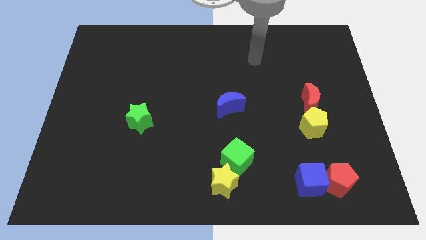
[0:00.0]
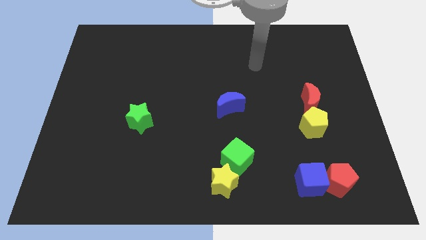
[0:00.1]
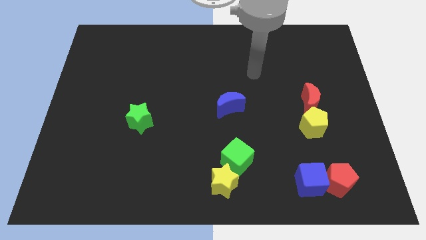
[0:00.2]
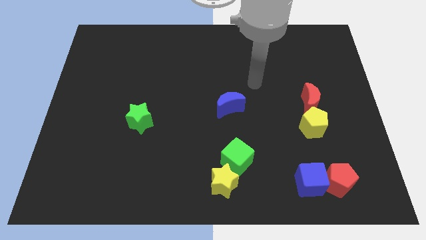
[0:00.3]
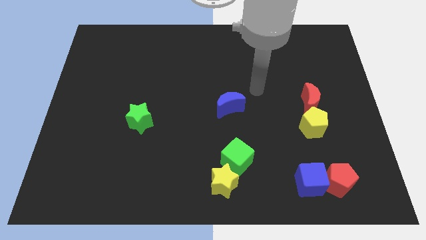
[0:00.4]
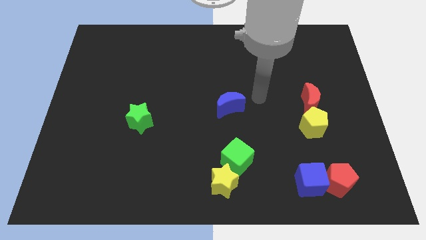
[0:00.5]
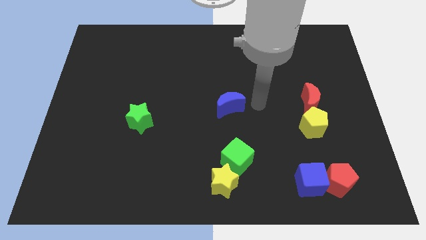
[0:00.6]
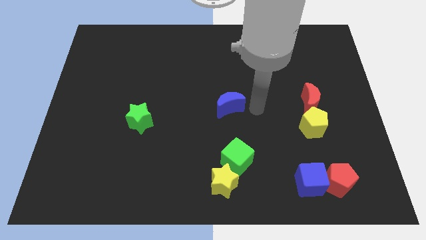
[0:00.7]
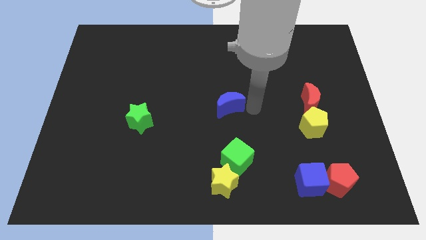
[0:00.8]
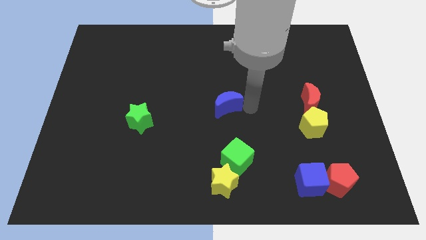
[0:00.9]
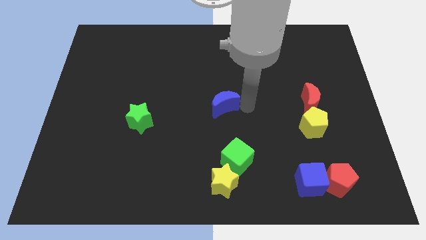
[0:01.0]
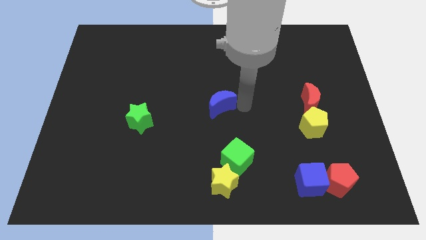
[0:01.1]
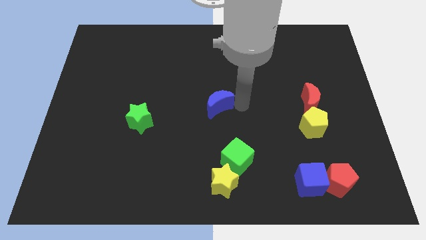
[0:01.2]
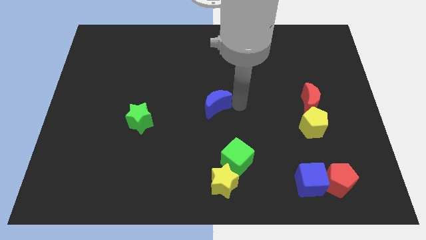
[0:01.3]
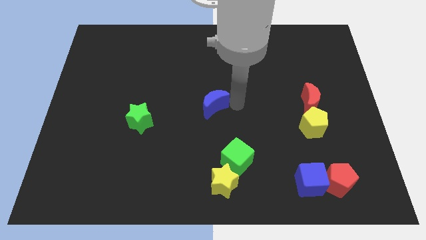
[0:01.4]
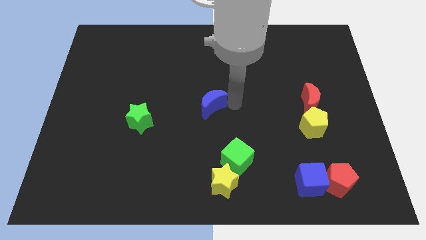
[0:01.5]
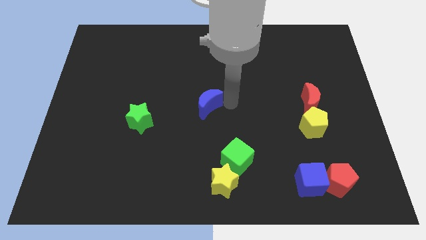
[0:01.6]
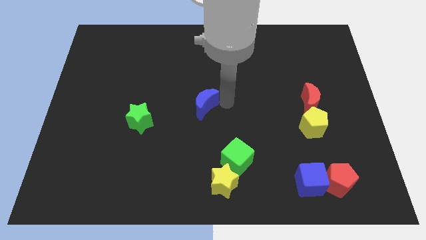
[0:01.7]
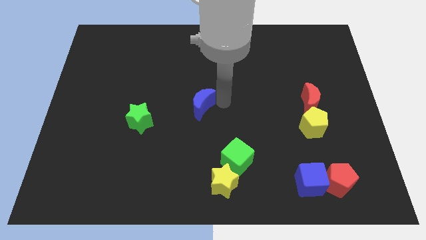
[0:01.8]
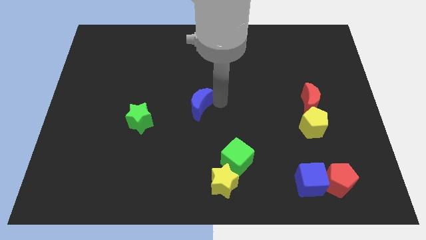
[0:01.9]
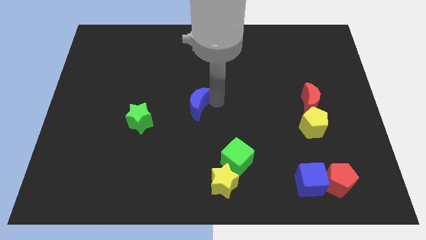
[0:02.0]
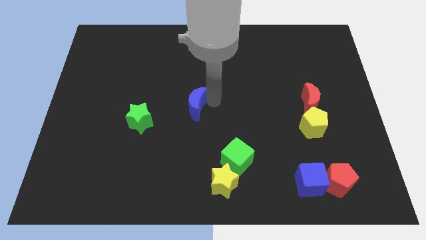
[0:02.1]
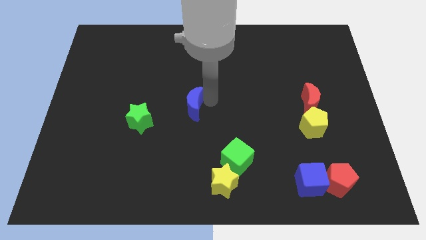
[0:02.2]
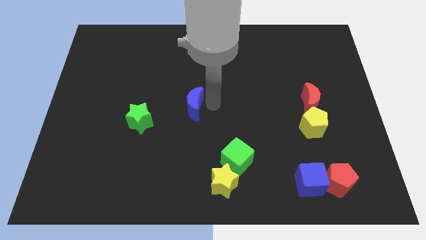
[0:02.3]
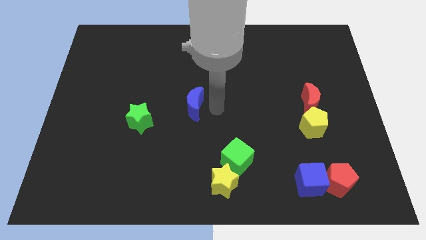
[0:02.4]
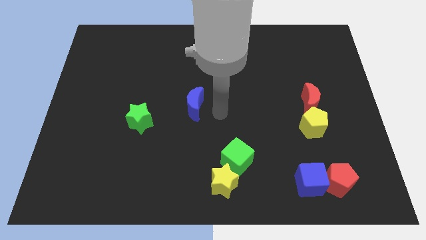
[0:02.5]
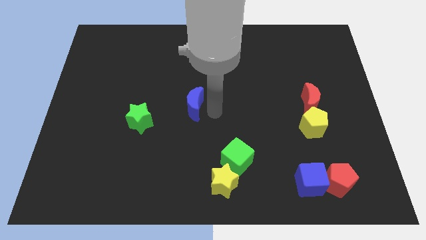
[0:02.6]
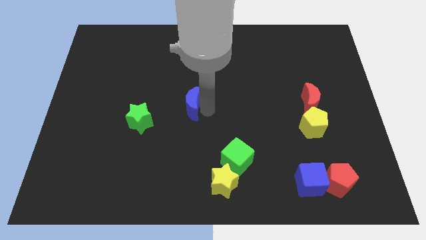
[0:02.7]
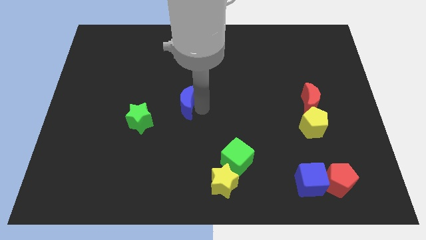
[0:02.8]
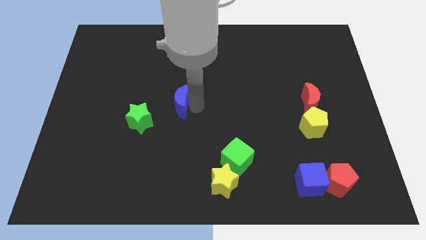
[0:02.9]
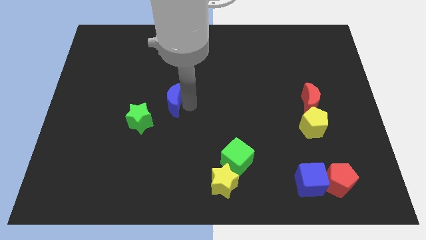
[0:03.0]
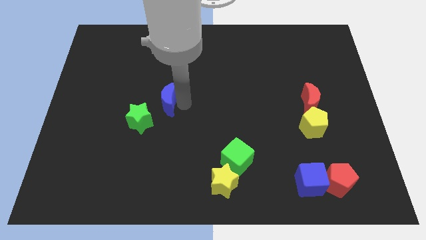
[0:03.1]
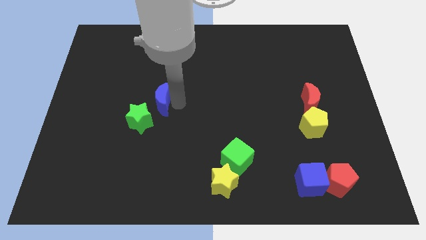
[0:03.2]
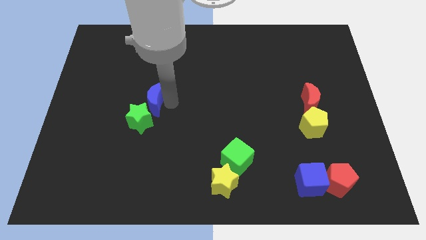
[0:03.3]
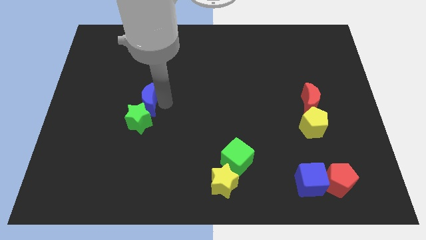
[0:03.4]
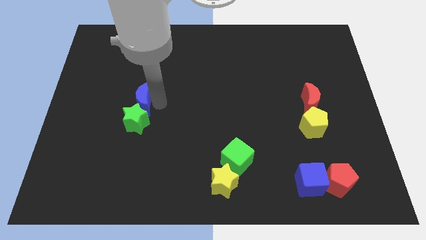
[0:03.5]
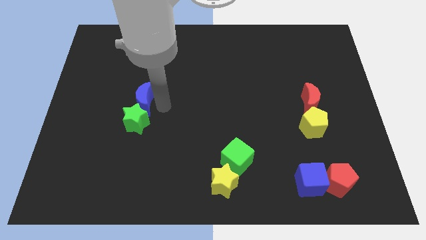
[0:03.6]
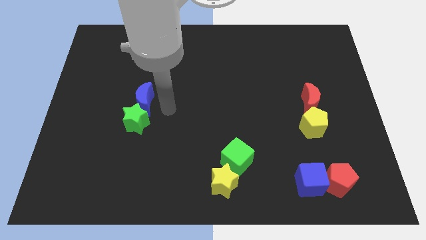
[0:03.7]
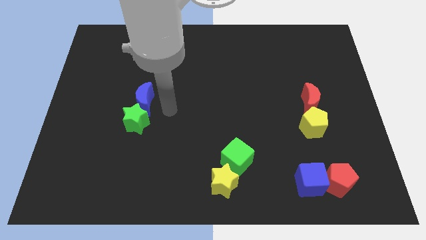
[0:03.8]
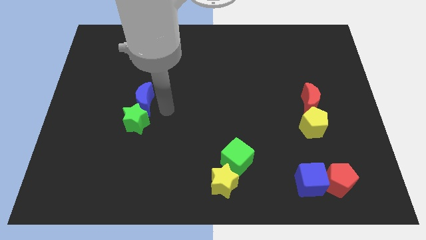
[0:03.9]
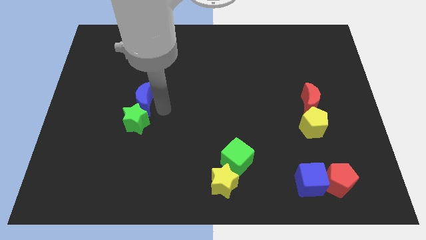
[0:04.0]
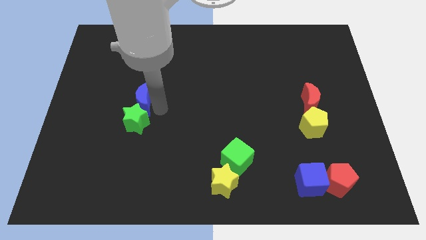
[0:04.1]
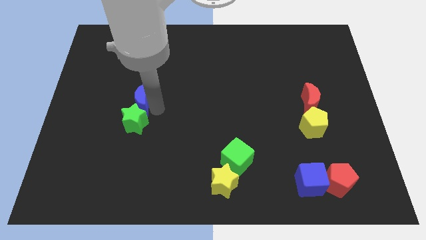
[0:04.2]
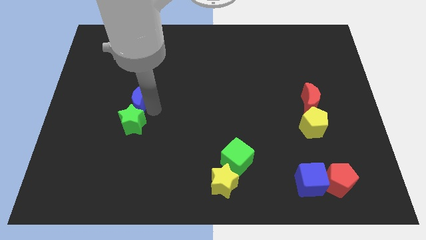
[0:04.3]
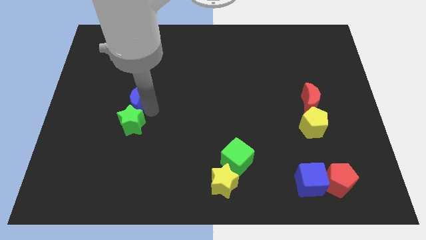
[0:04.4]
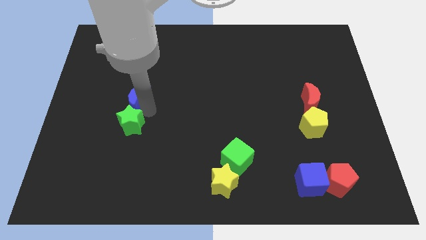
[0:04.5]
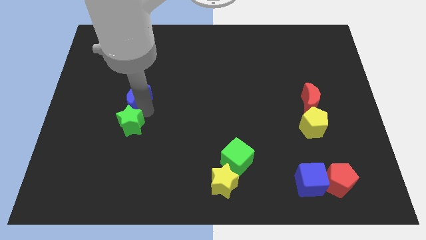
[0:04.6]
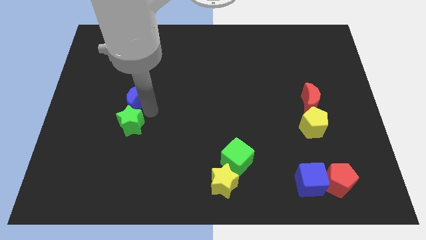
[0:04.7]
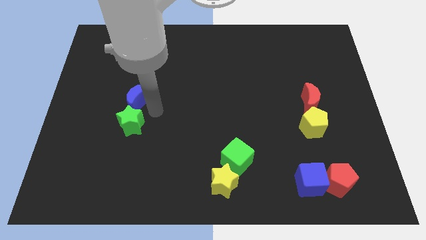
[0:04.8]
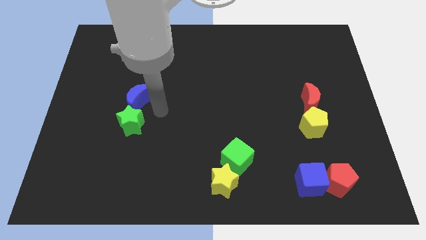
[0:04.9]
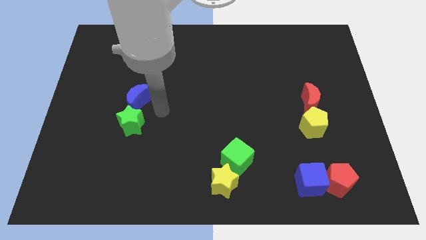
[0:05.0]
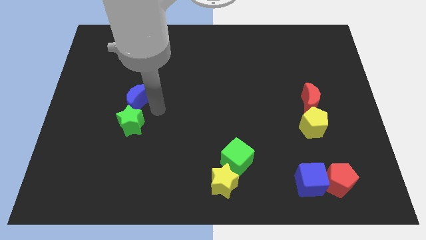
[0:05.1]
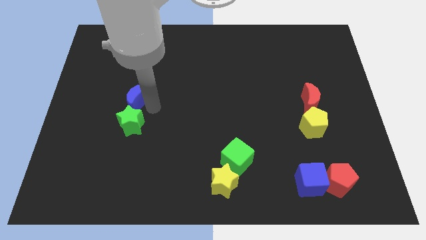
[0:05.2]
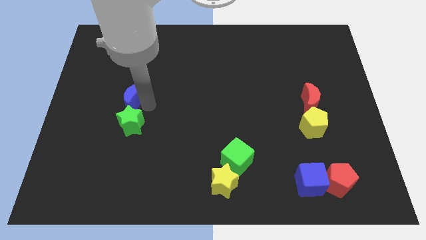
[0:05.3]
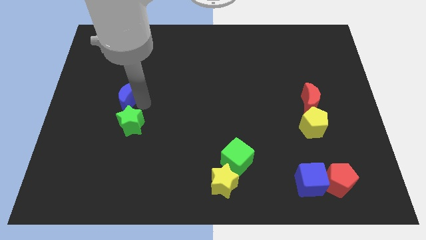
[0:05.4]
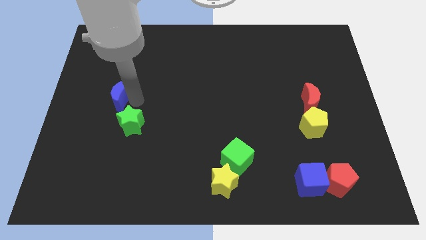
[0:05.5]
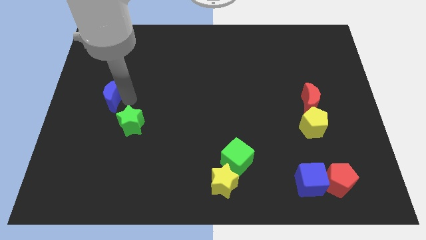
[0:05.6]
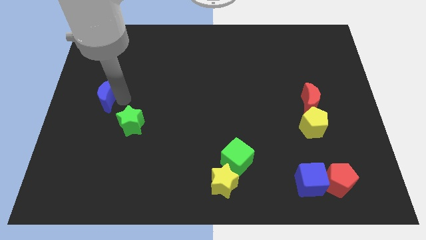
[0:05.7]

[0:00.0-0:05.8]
slide the blue moon to the center left

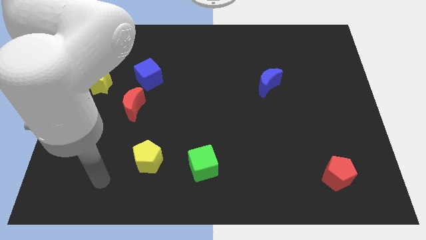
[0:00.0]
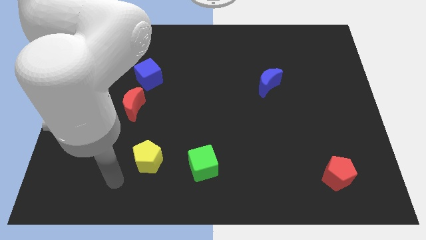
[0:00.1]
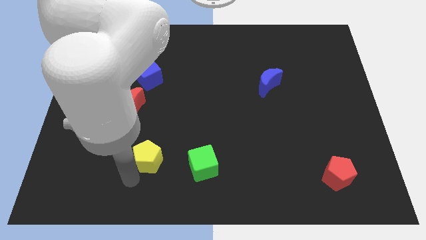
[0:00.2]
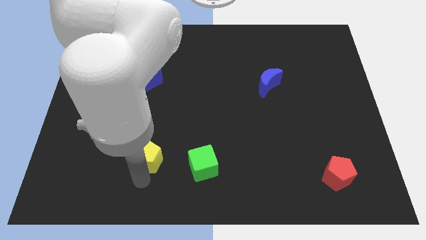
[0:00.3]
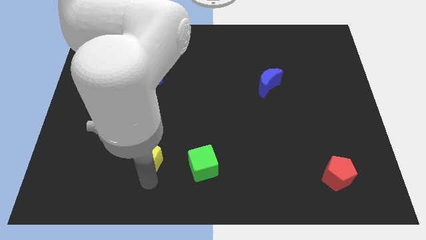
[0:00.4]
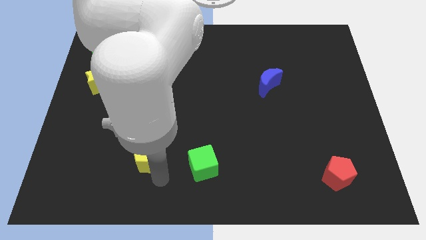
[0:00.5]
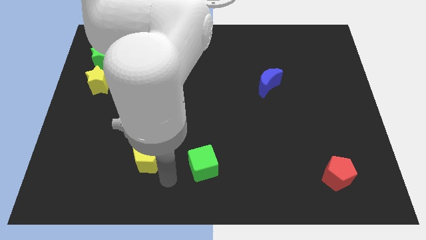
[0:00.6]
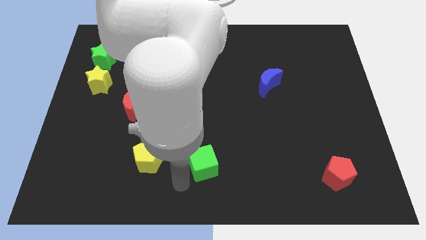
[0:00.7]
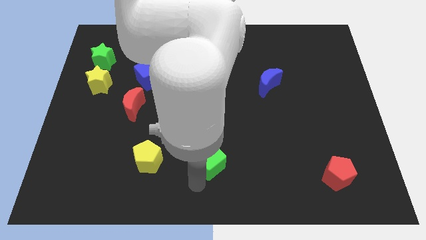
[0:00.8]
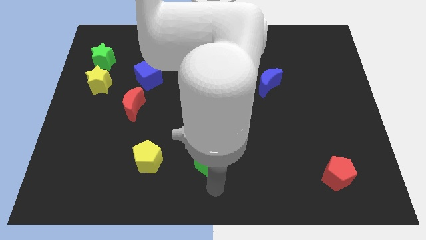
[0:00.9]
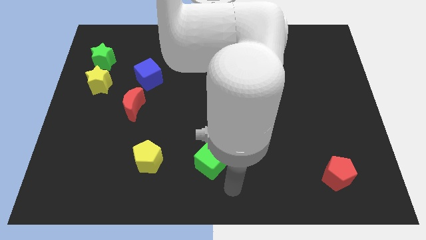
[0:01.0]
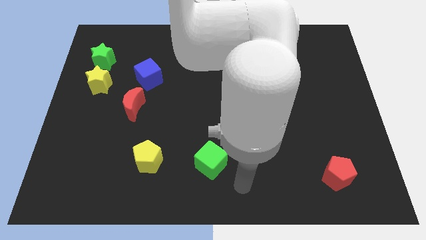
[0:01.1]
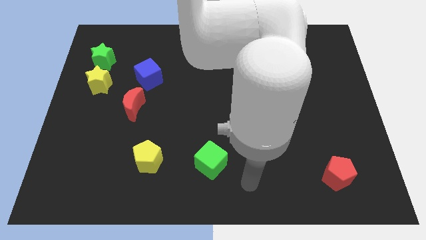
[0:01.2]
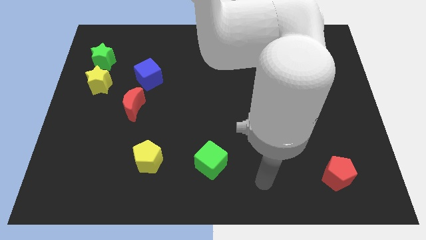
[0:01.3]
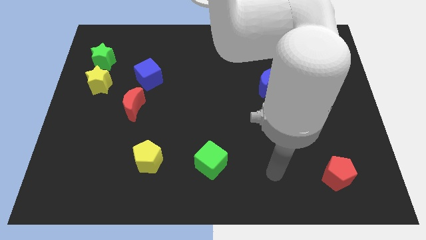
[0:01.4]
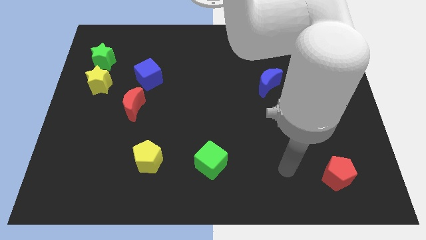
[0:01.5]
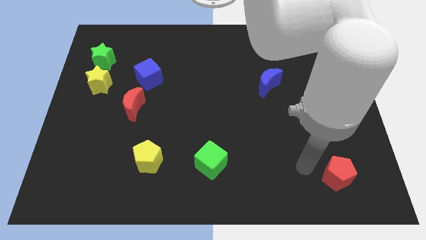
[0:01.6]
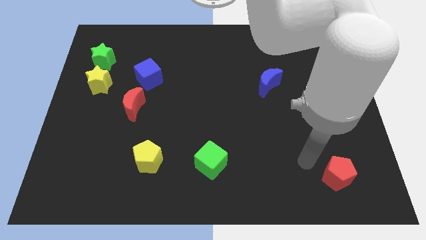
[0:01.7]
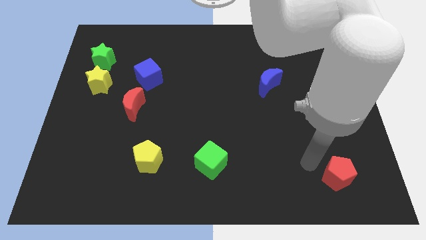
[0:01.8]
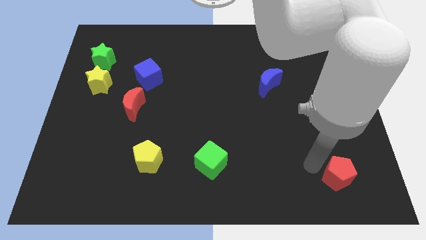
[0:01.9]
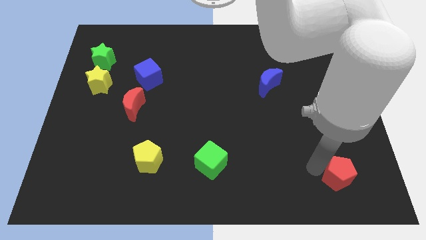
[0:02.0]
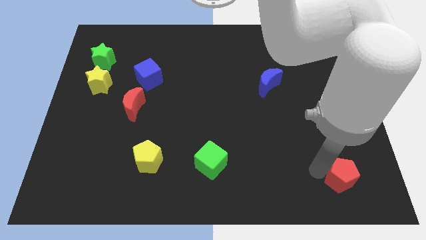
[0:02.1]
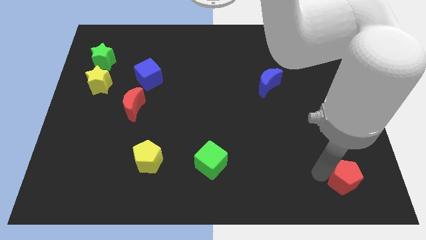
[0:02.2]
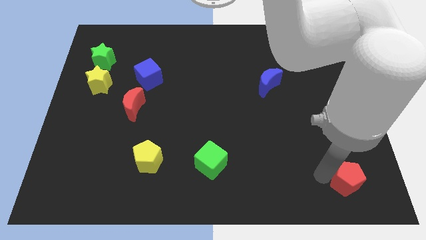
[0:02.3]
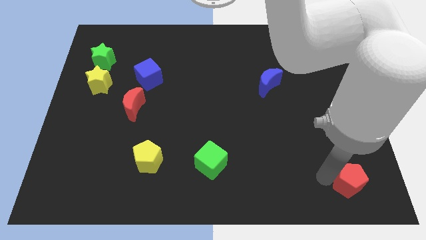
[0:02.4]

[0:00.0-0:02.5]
put the red pentagon to the lower right corner
